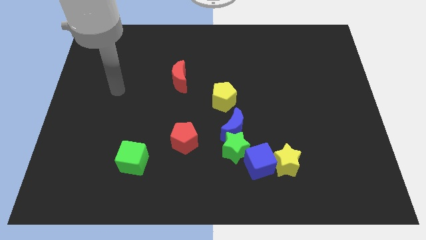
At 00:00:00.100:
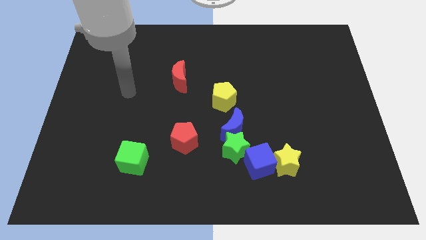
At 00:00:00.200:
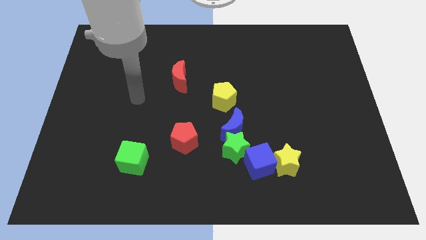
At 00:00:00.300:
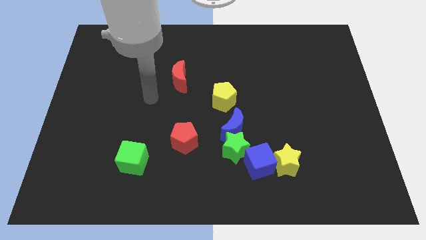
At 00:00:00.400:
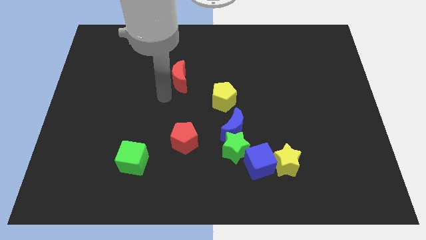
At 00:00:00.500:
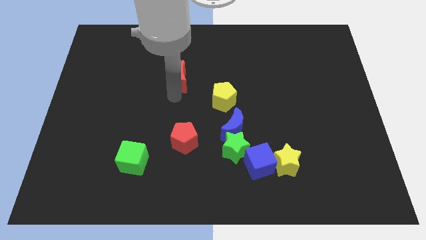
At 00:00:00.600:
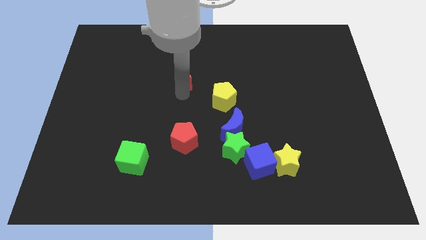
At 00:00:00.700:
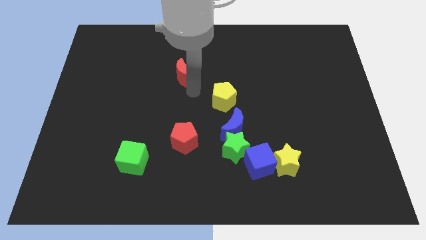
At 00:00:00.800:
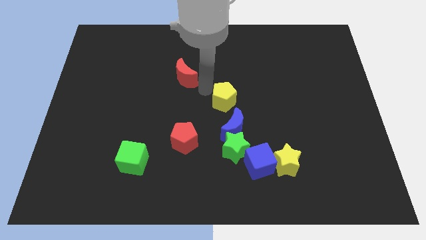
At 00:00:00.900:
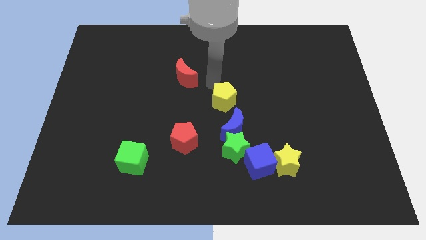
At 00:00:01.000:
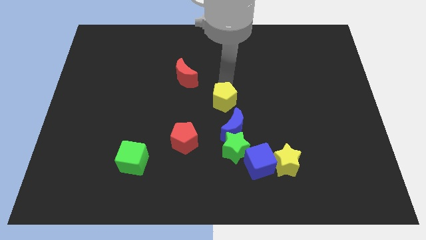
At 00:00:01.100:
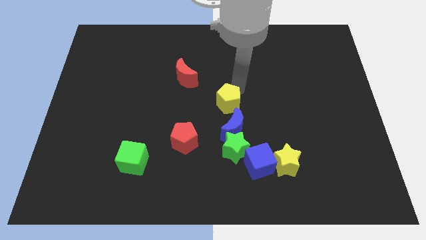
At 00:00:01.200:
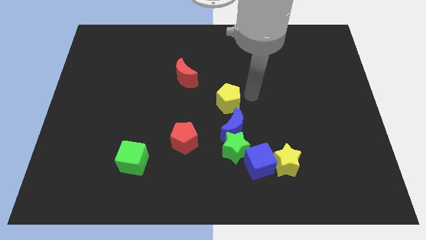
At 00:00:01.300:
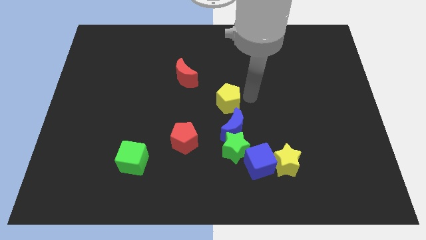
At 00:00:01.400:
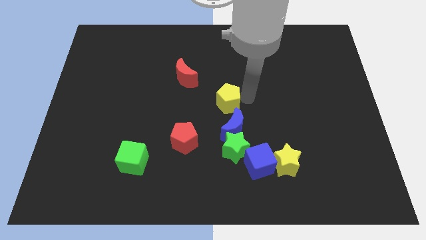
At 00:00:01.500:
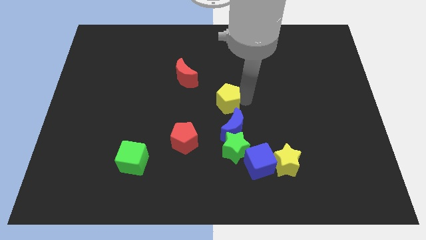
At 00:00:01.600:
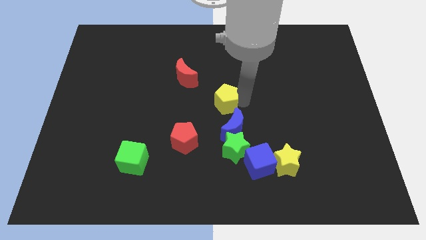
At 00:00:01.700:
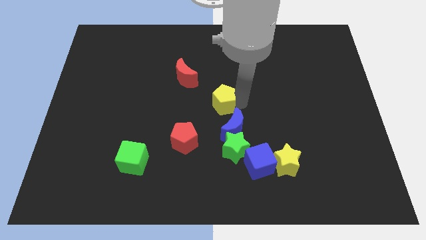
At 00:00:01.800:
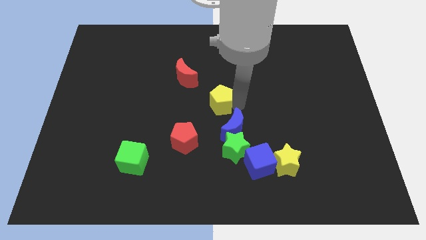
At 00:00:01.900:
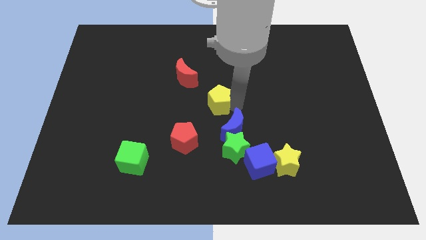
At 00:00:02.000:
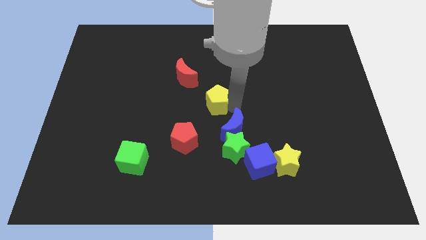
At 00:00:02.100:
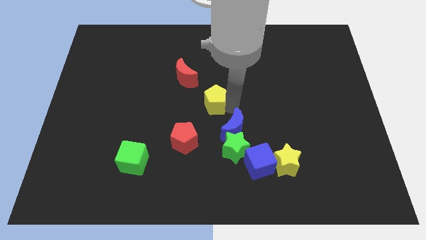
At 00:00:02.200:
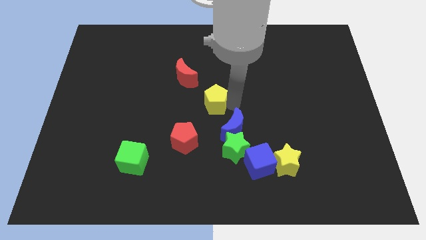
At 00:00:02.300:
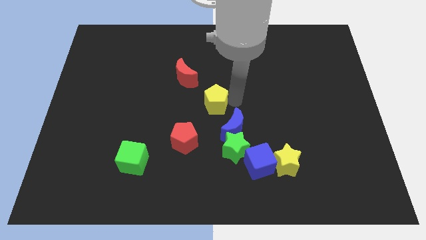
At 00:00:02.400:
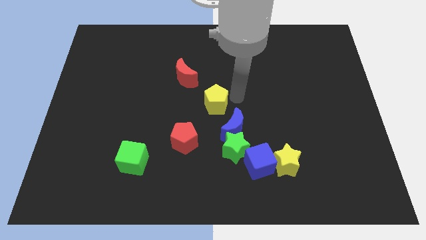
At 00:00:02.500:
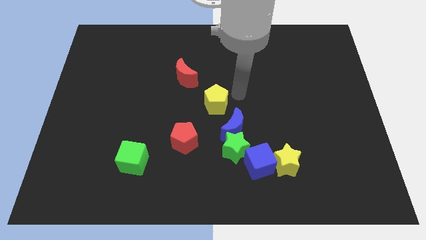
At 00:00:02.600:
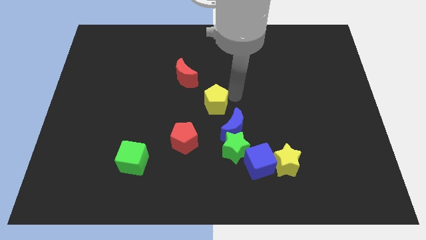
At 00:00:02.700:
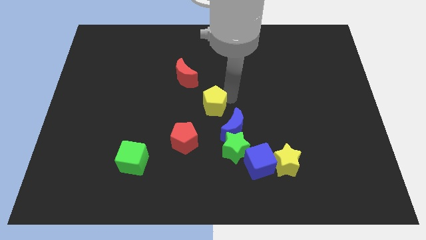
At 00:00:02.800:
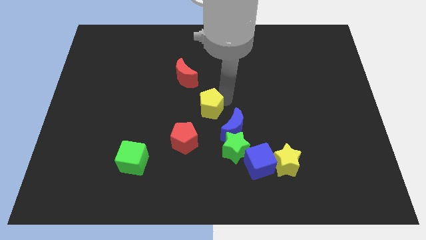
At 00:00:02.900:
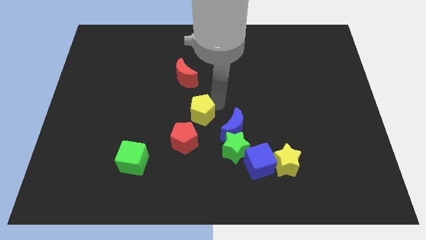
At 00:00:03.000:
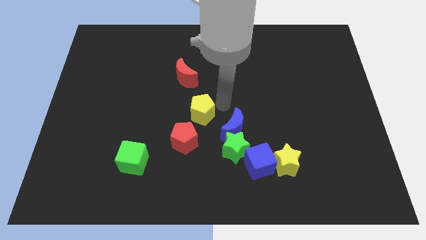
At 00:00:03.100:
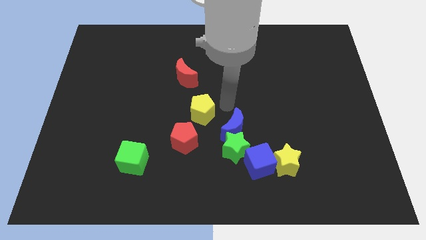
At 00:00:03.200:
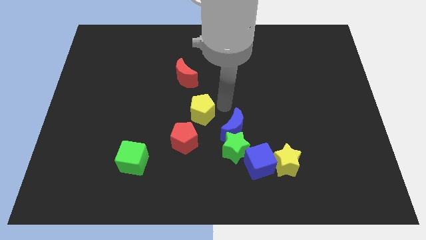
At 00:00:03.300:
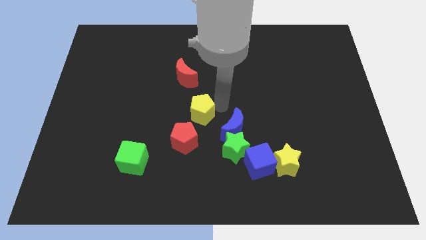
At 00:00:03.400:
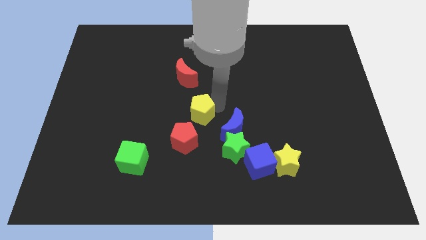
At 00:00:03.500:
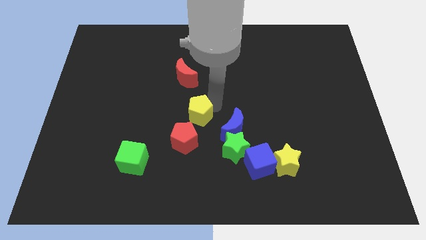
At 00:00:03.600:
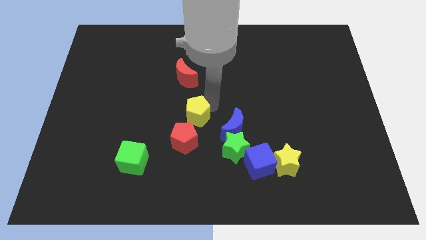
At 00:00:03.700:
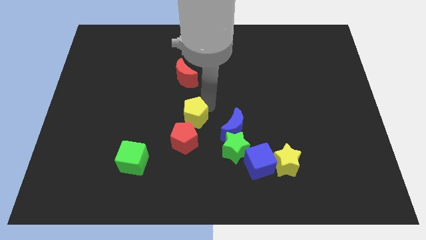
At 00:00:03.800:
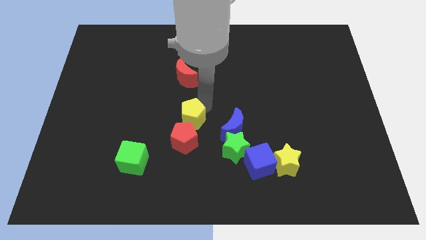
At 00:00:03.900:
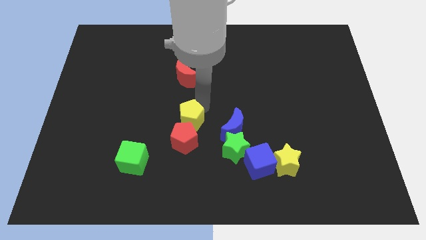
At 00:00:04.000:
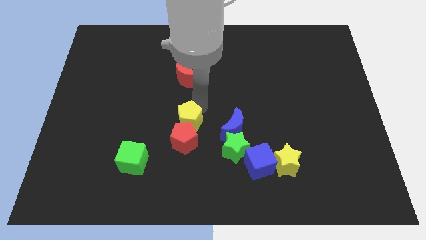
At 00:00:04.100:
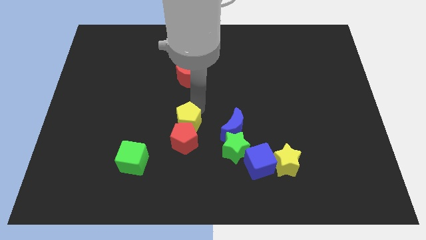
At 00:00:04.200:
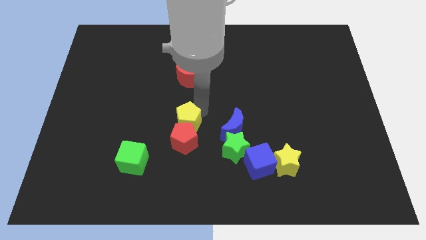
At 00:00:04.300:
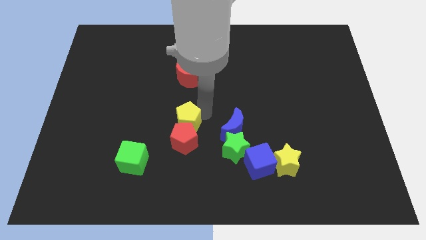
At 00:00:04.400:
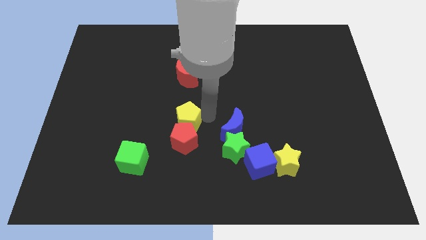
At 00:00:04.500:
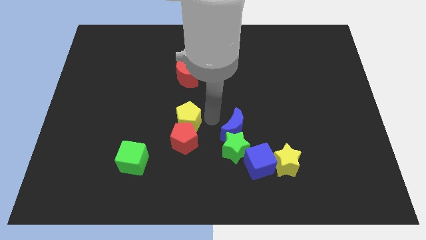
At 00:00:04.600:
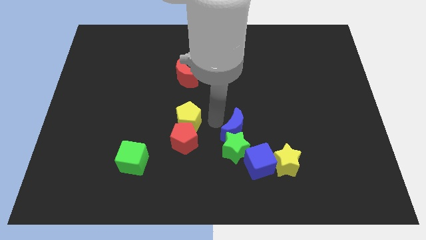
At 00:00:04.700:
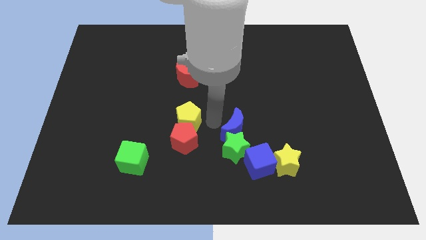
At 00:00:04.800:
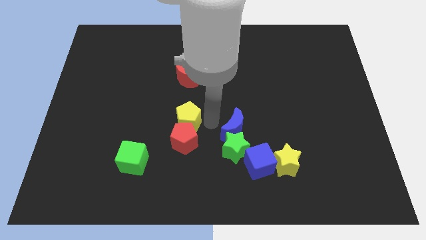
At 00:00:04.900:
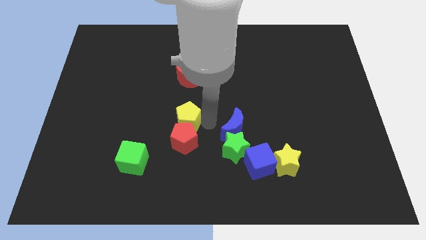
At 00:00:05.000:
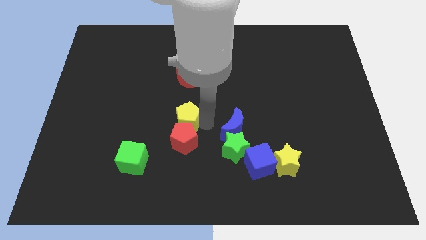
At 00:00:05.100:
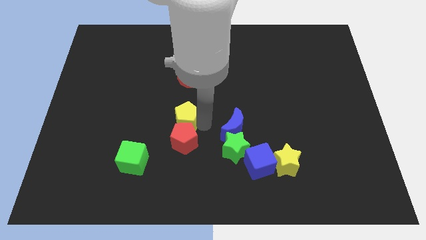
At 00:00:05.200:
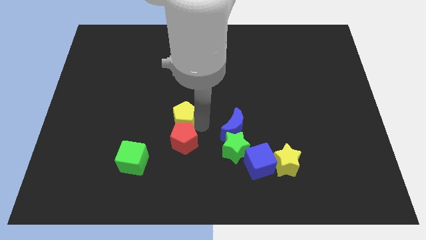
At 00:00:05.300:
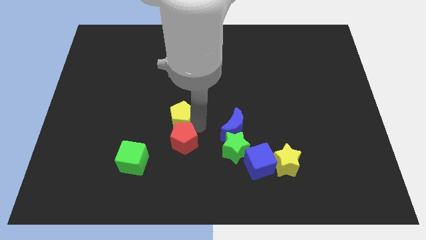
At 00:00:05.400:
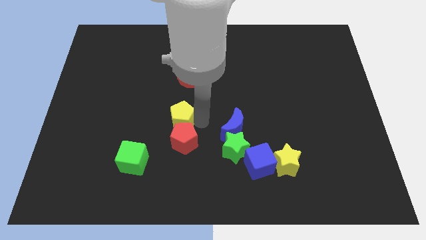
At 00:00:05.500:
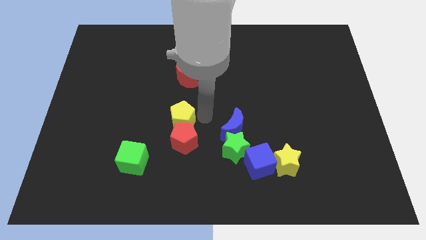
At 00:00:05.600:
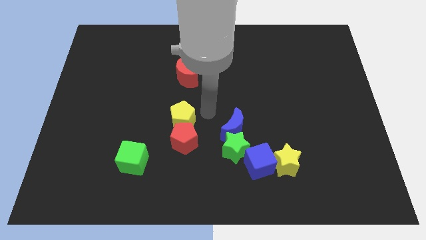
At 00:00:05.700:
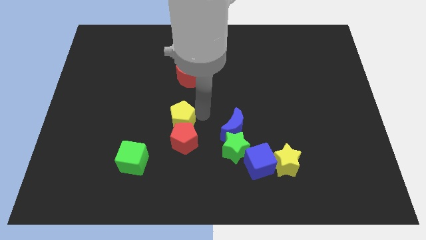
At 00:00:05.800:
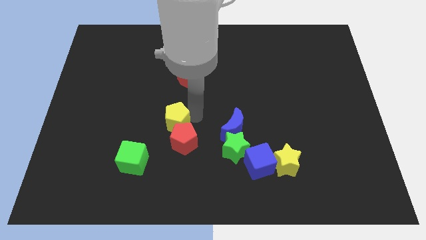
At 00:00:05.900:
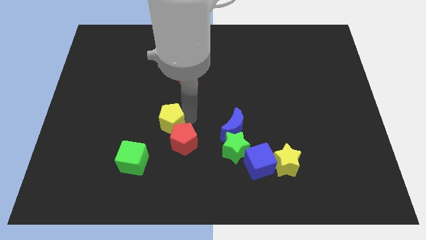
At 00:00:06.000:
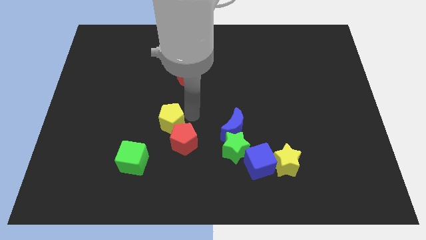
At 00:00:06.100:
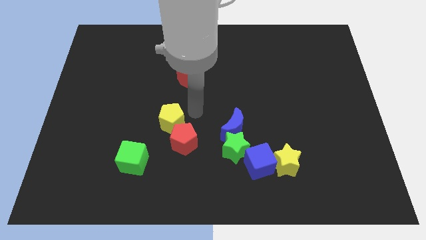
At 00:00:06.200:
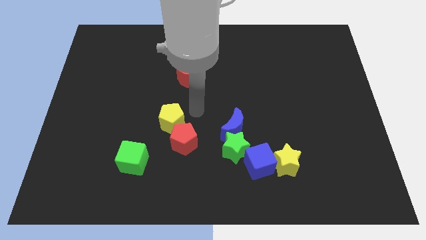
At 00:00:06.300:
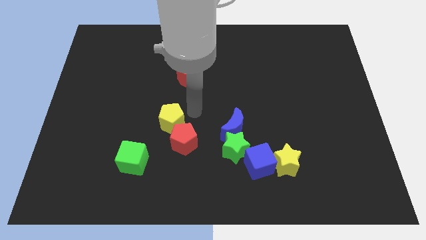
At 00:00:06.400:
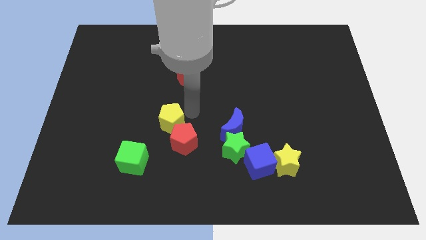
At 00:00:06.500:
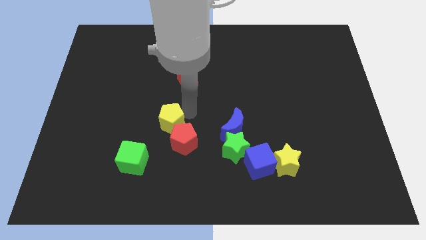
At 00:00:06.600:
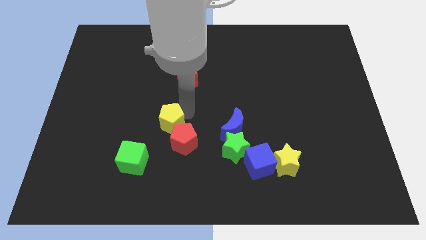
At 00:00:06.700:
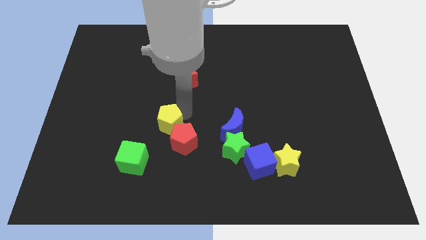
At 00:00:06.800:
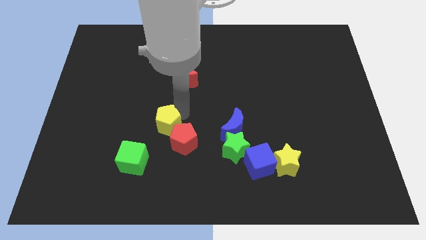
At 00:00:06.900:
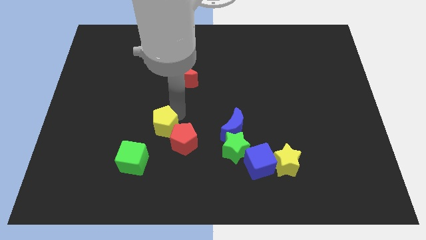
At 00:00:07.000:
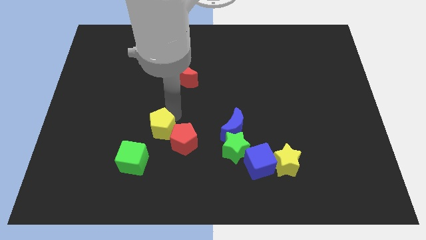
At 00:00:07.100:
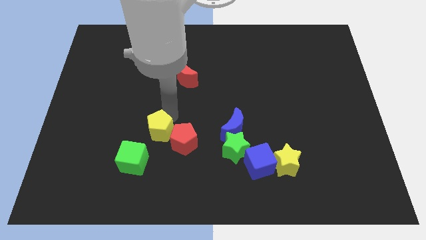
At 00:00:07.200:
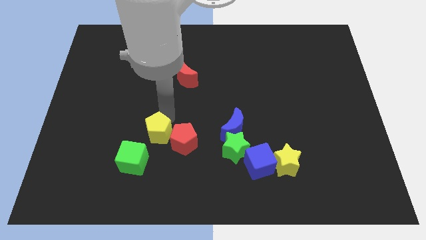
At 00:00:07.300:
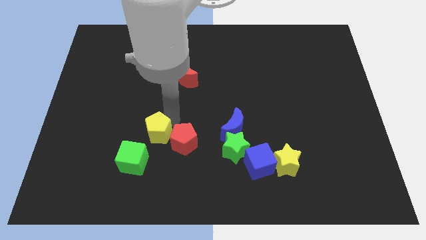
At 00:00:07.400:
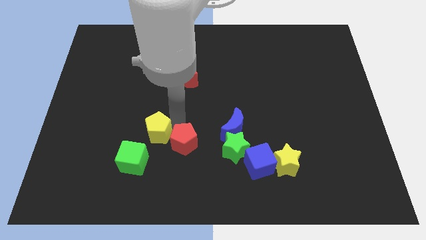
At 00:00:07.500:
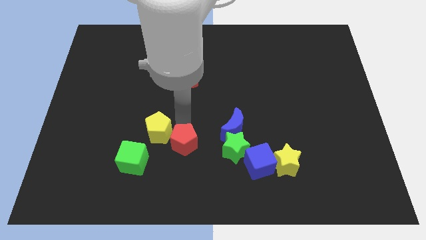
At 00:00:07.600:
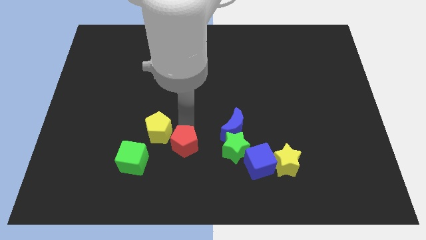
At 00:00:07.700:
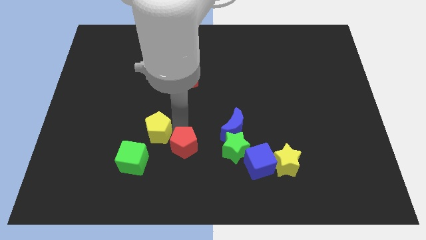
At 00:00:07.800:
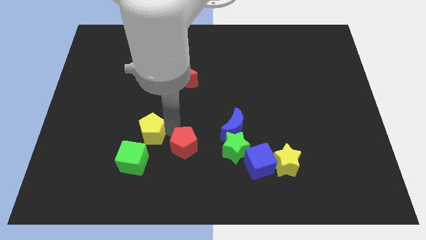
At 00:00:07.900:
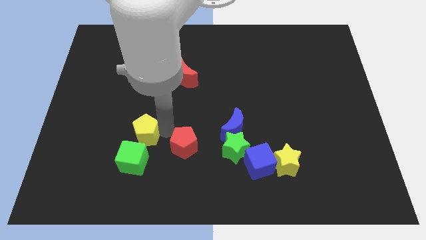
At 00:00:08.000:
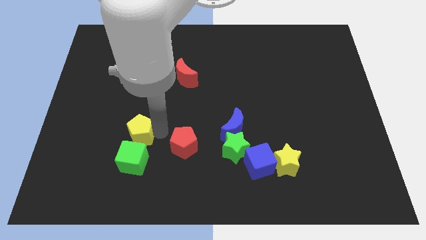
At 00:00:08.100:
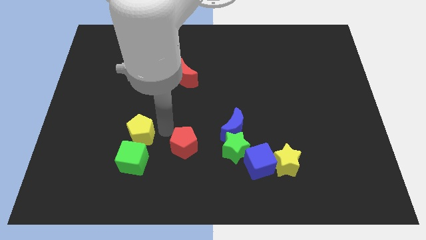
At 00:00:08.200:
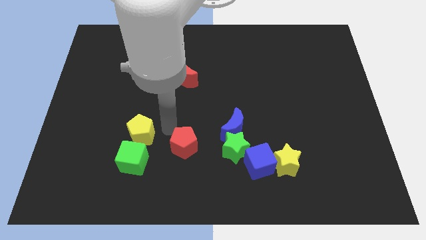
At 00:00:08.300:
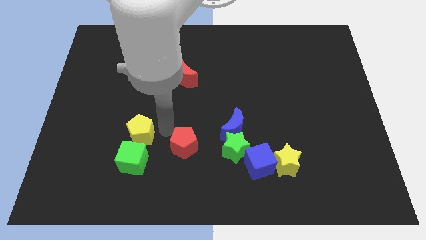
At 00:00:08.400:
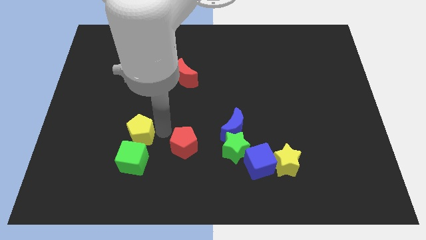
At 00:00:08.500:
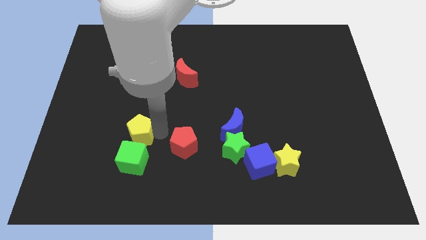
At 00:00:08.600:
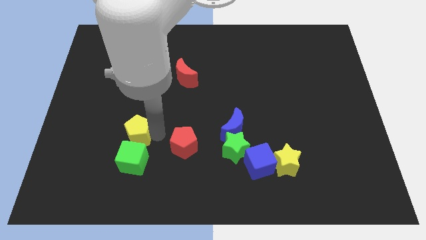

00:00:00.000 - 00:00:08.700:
push the yellow pentagon diagonally up and to the left of the green cube
